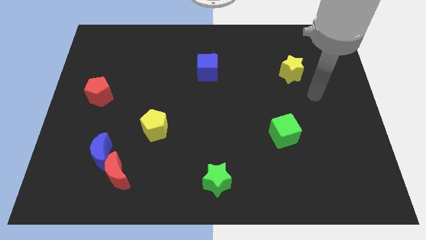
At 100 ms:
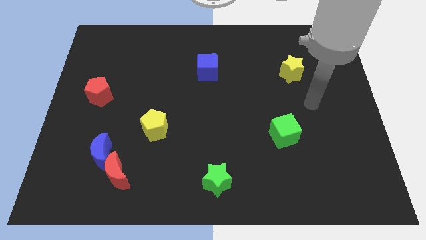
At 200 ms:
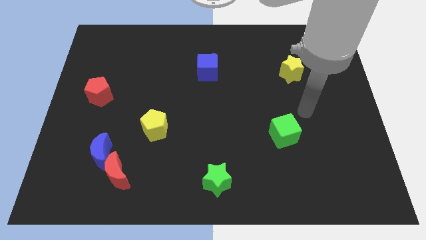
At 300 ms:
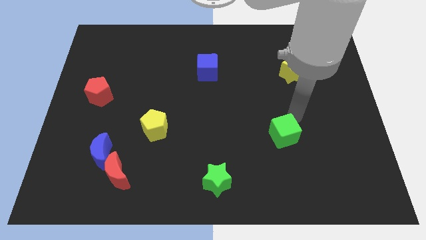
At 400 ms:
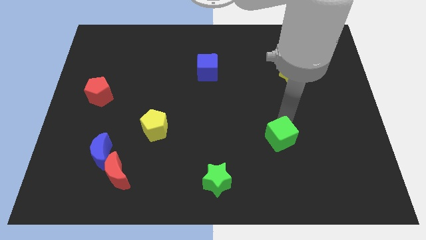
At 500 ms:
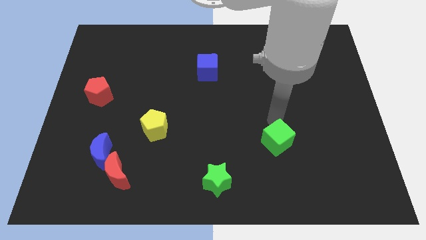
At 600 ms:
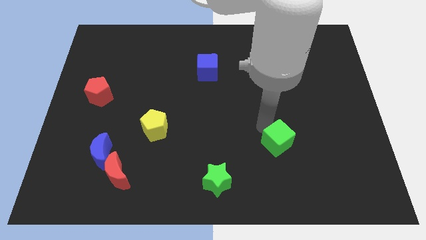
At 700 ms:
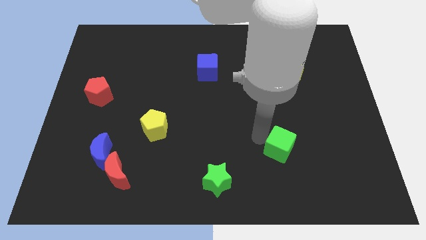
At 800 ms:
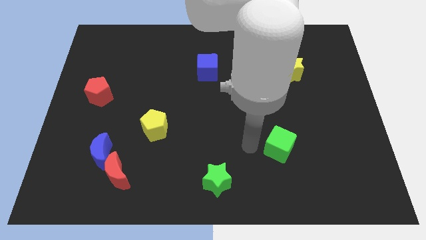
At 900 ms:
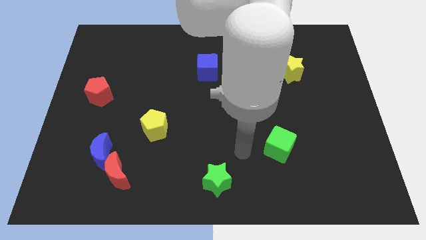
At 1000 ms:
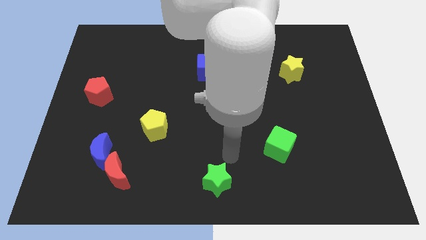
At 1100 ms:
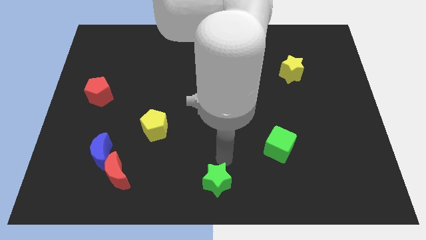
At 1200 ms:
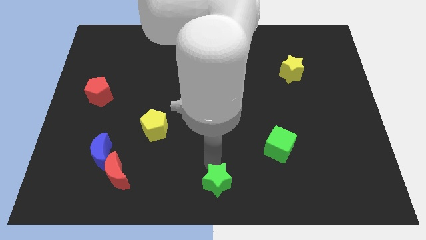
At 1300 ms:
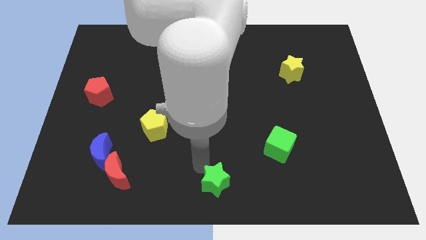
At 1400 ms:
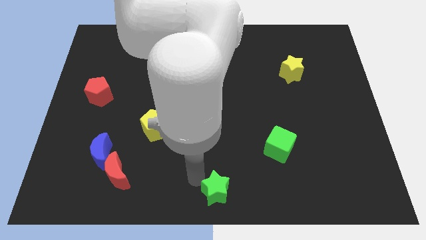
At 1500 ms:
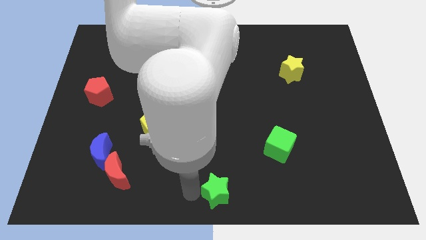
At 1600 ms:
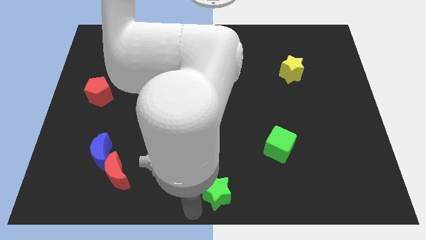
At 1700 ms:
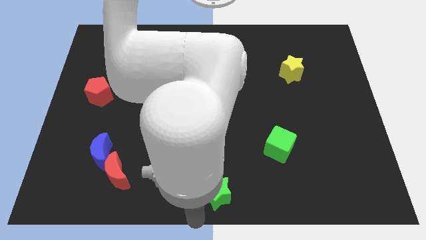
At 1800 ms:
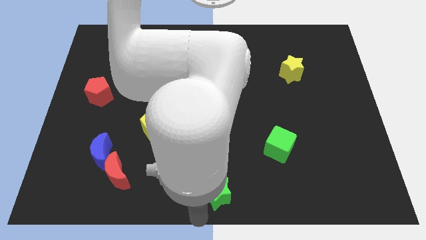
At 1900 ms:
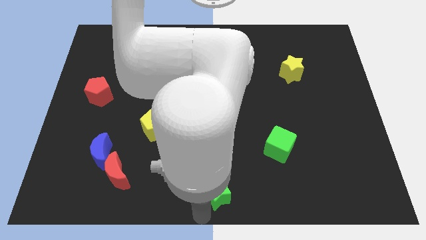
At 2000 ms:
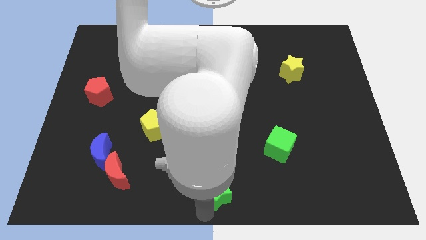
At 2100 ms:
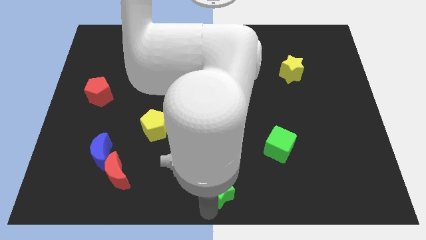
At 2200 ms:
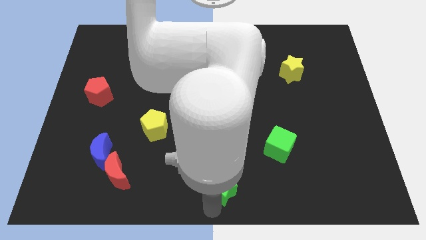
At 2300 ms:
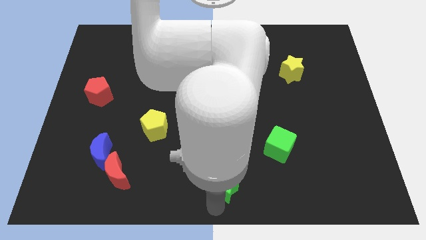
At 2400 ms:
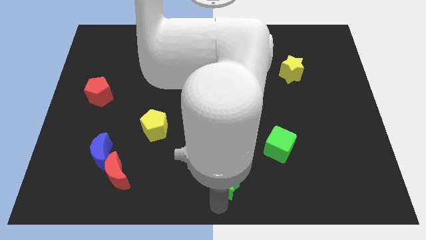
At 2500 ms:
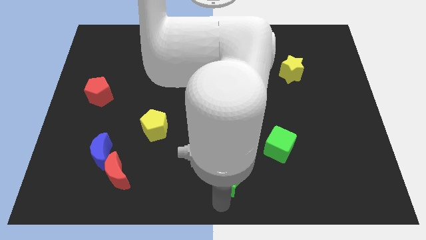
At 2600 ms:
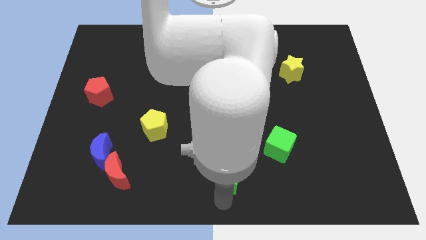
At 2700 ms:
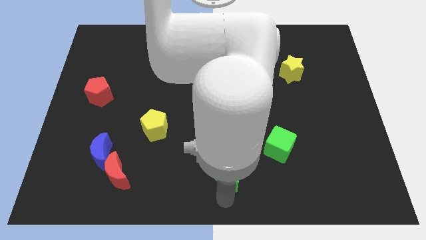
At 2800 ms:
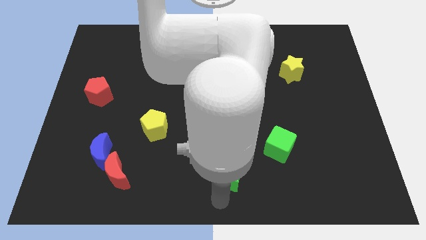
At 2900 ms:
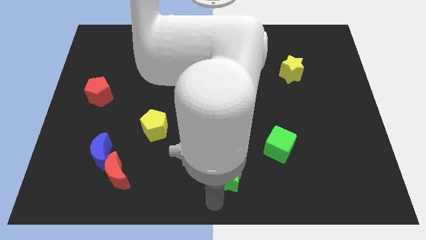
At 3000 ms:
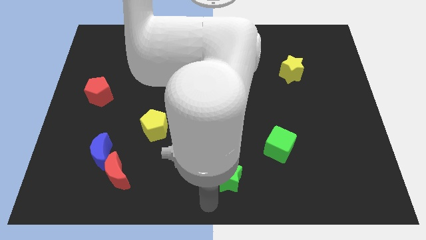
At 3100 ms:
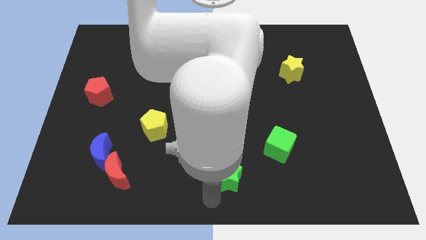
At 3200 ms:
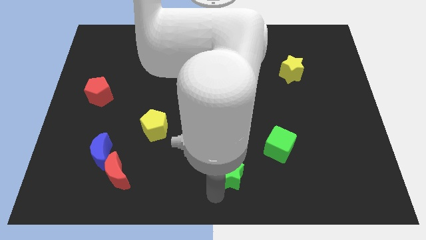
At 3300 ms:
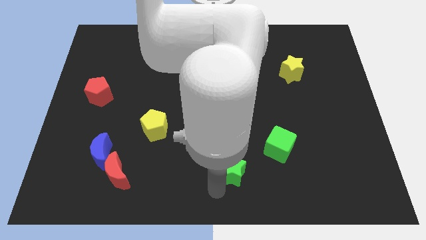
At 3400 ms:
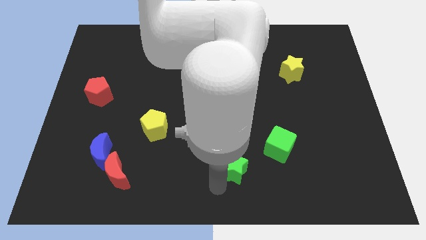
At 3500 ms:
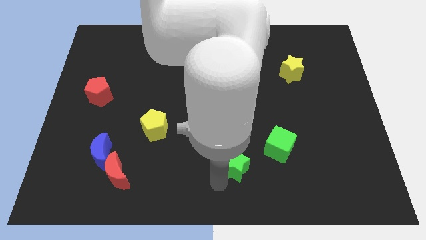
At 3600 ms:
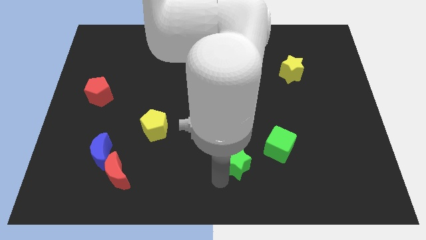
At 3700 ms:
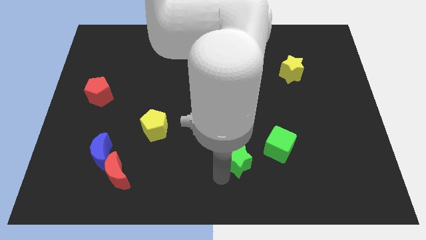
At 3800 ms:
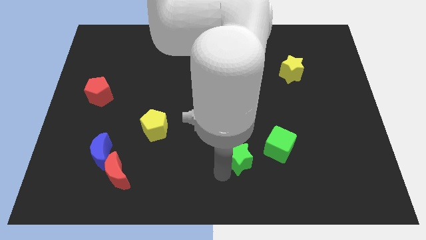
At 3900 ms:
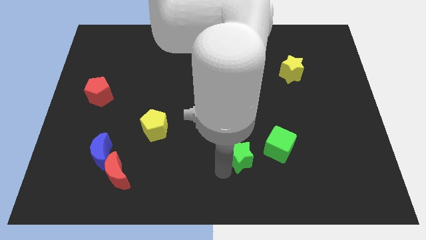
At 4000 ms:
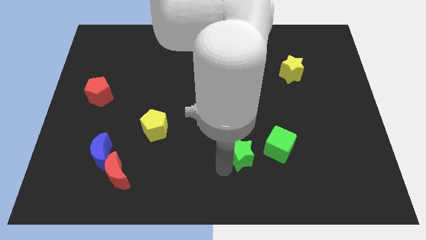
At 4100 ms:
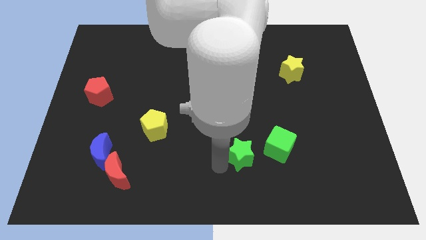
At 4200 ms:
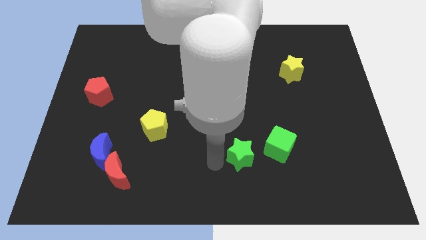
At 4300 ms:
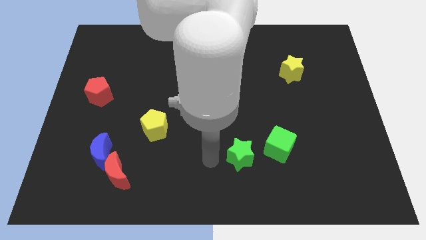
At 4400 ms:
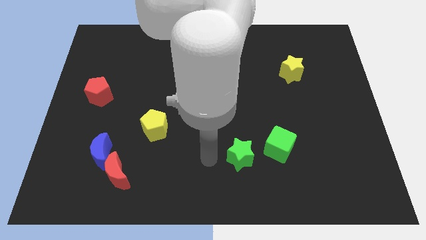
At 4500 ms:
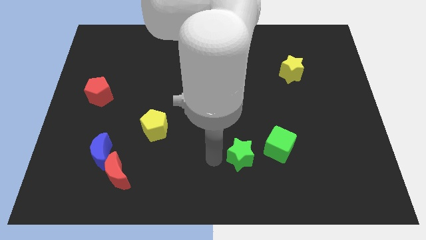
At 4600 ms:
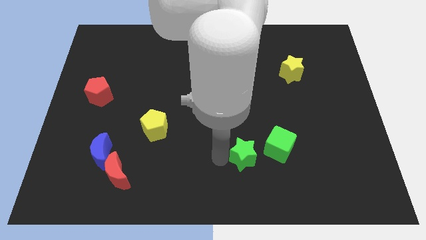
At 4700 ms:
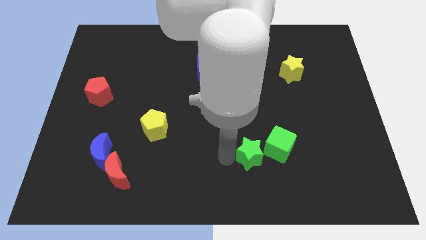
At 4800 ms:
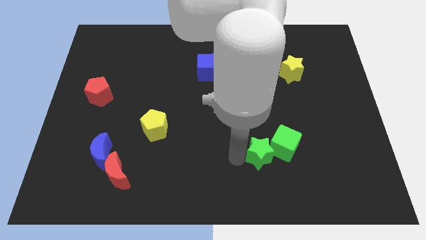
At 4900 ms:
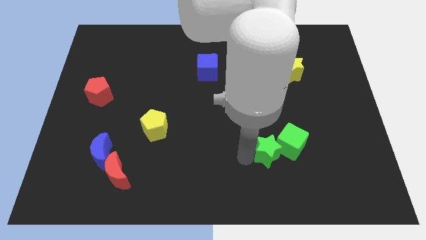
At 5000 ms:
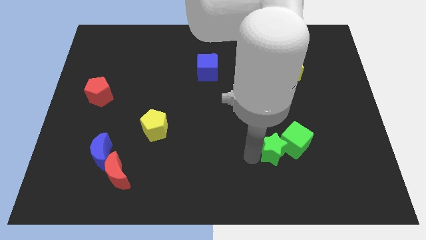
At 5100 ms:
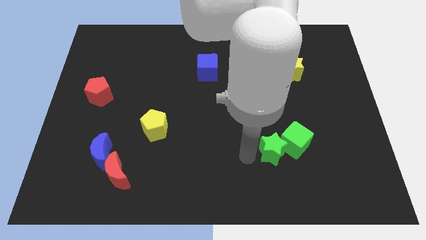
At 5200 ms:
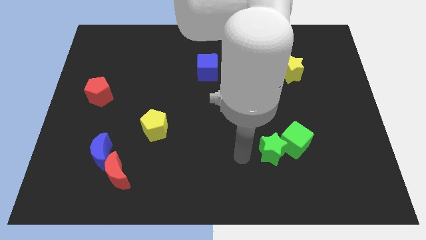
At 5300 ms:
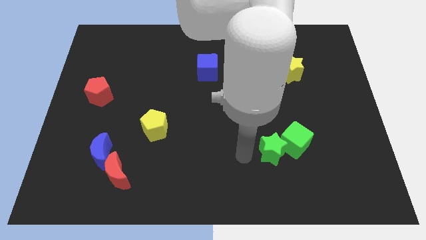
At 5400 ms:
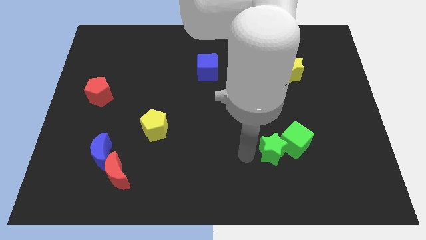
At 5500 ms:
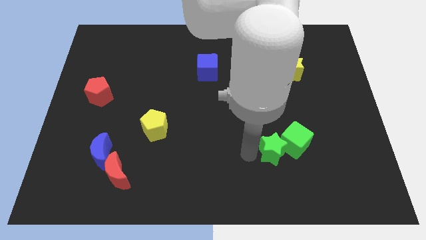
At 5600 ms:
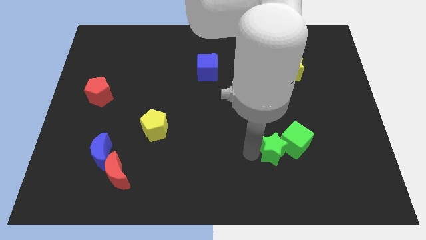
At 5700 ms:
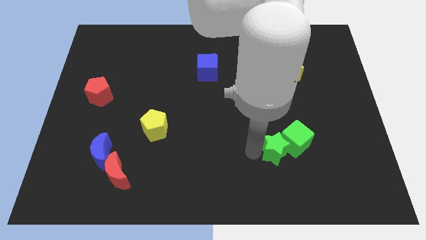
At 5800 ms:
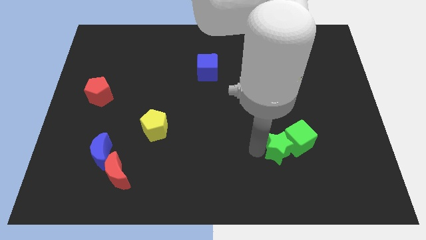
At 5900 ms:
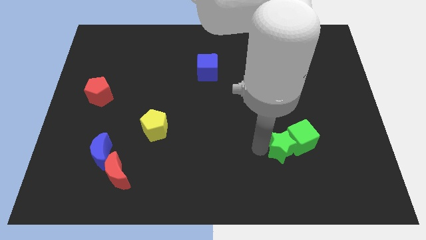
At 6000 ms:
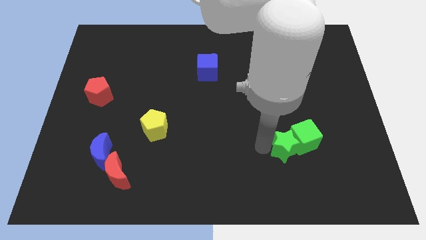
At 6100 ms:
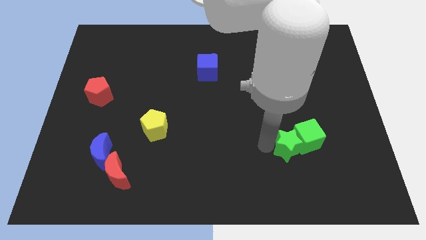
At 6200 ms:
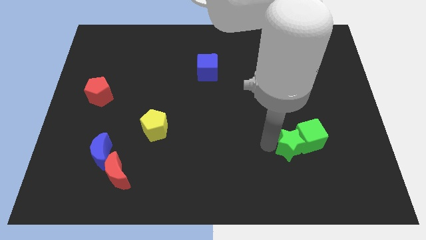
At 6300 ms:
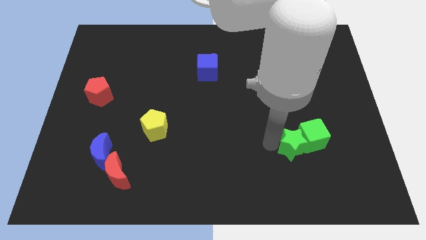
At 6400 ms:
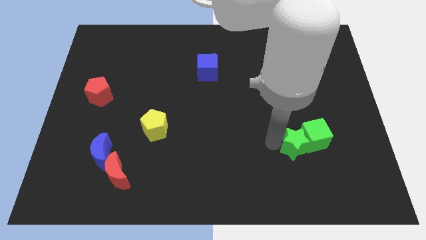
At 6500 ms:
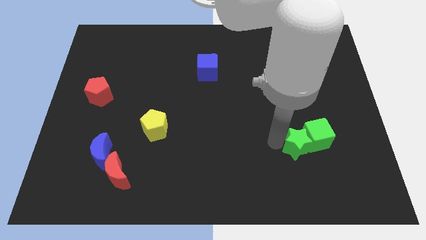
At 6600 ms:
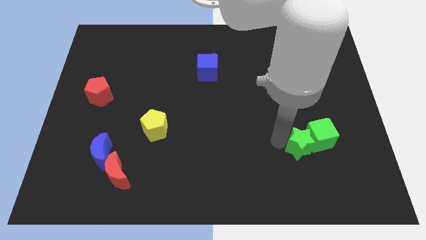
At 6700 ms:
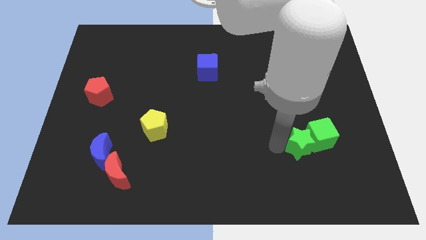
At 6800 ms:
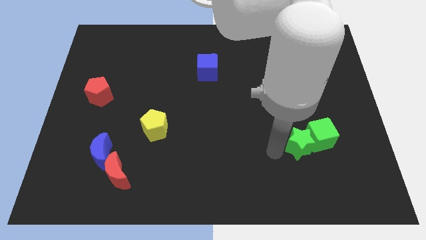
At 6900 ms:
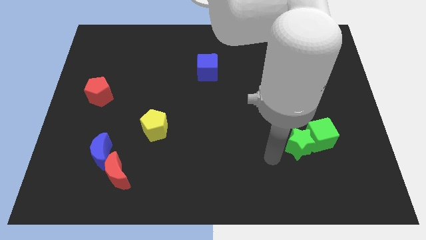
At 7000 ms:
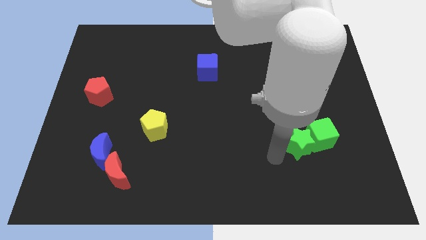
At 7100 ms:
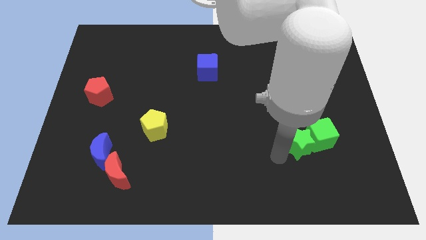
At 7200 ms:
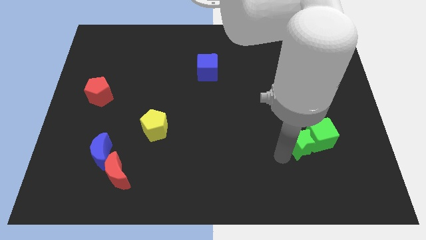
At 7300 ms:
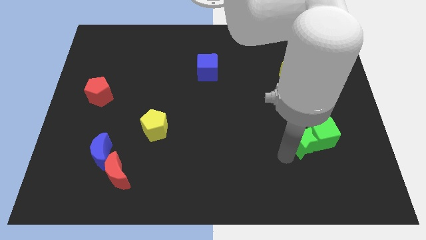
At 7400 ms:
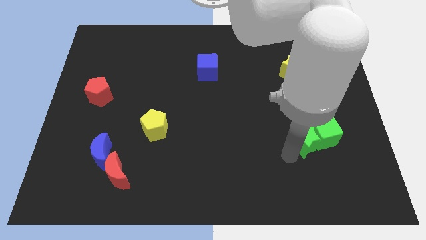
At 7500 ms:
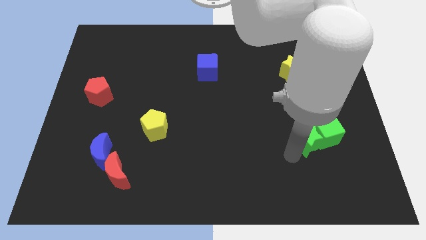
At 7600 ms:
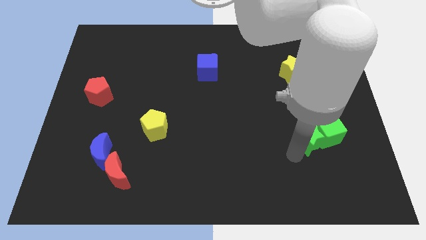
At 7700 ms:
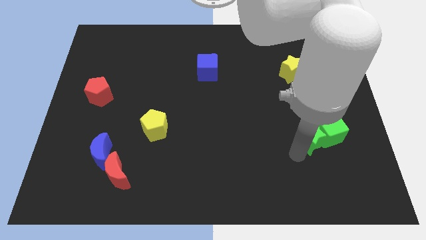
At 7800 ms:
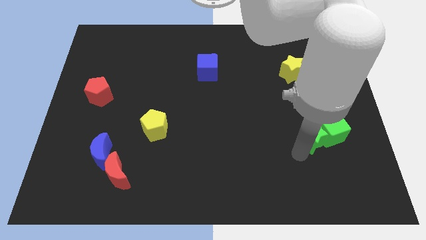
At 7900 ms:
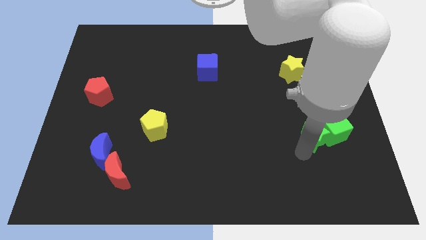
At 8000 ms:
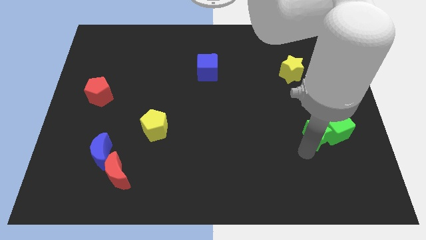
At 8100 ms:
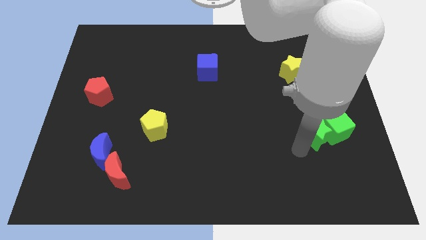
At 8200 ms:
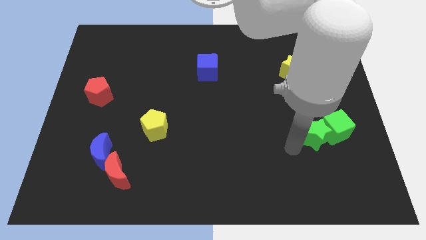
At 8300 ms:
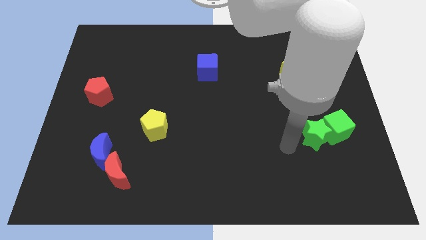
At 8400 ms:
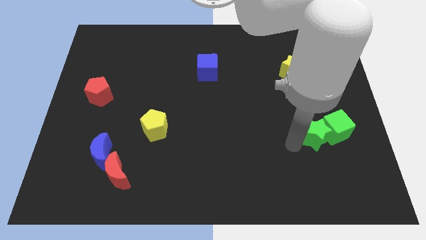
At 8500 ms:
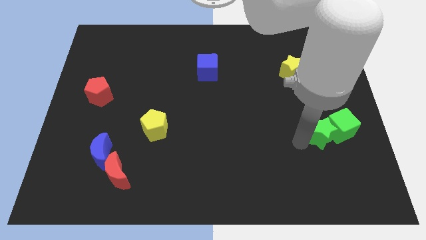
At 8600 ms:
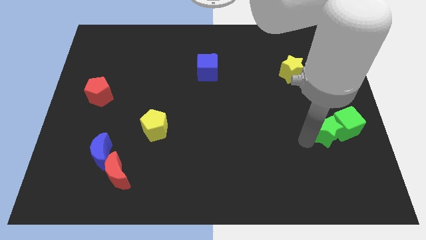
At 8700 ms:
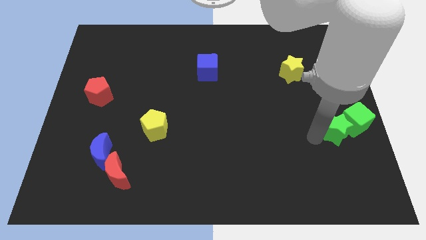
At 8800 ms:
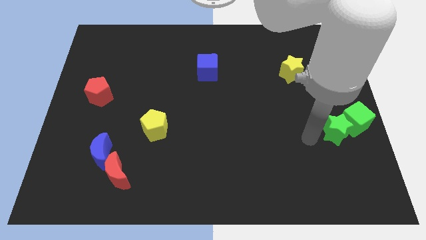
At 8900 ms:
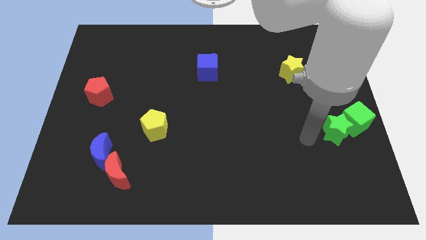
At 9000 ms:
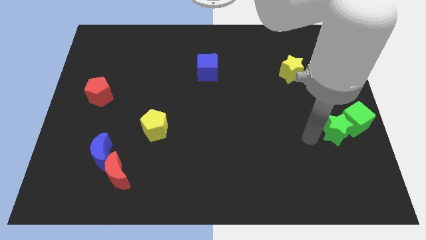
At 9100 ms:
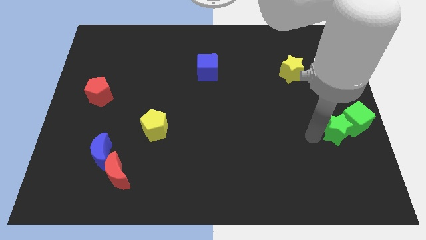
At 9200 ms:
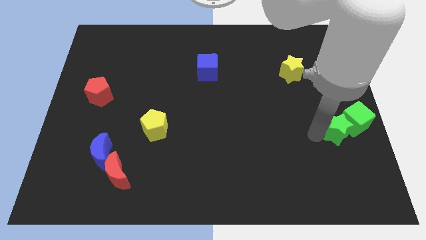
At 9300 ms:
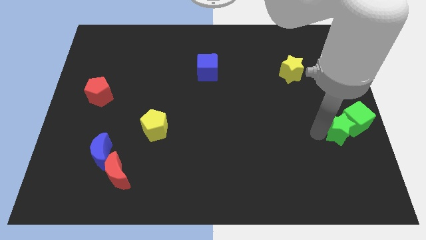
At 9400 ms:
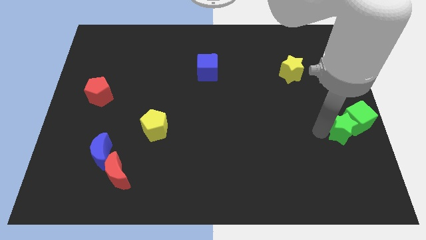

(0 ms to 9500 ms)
move the green star to the center right
